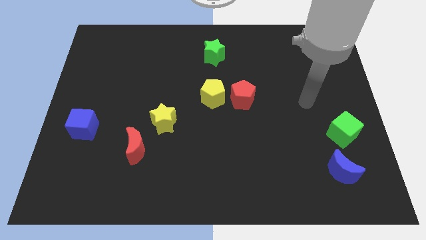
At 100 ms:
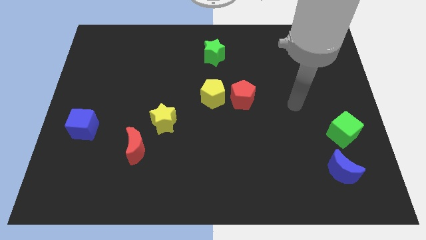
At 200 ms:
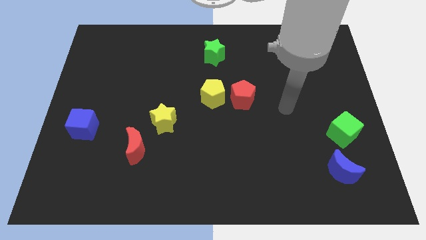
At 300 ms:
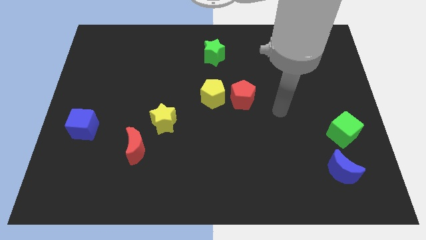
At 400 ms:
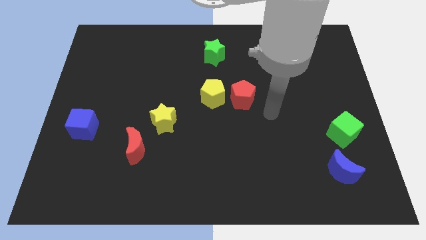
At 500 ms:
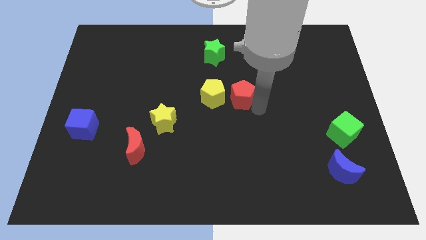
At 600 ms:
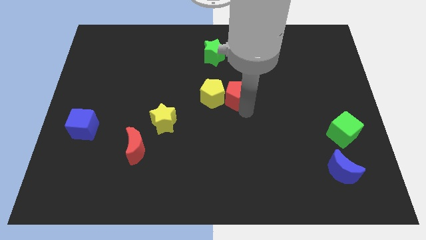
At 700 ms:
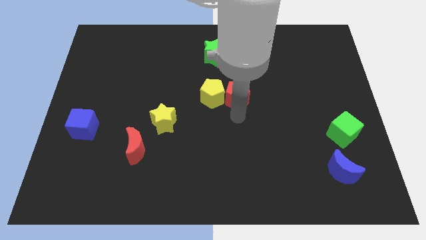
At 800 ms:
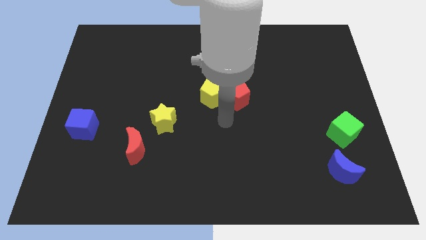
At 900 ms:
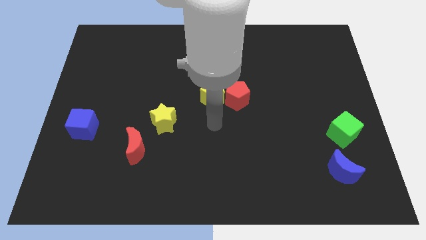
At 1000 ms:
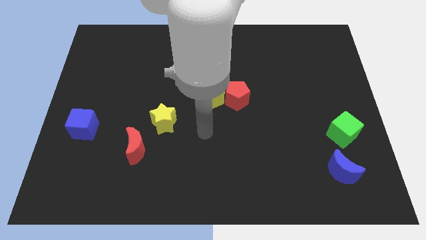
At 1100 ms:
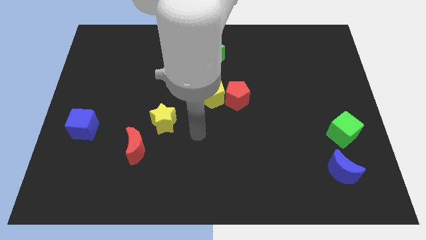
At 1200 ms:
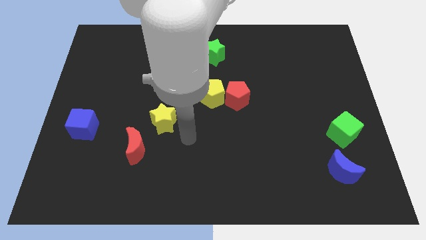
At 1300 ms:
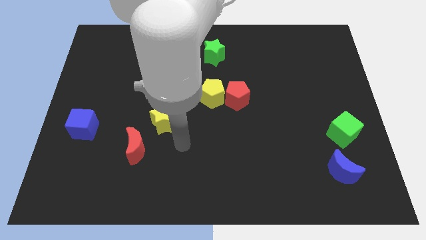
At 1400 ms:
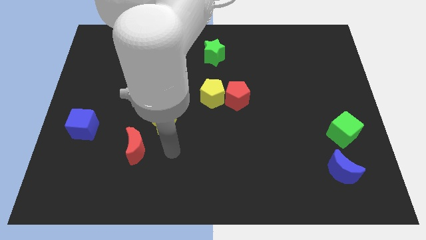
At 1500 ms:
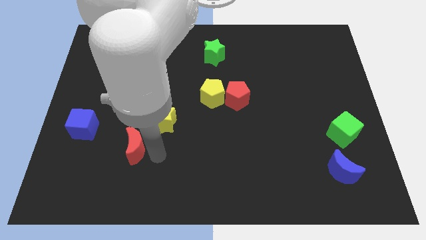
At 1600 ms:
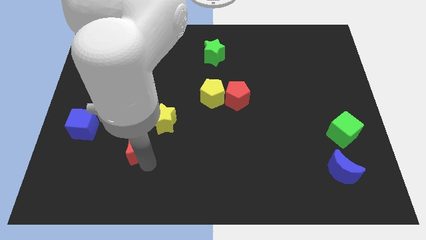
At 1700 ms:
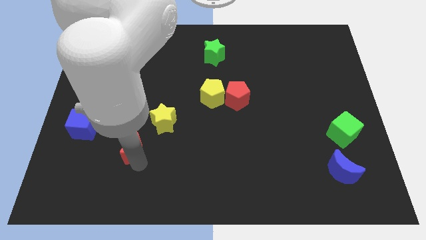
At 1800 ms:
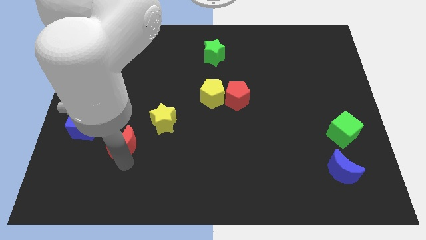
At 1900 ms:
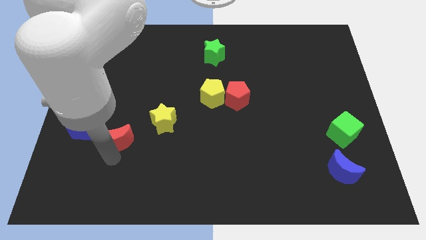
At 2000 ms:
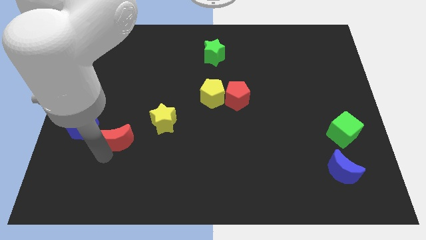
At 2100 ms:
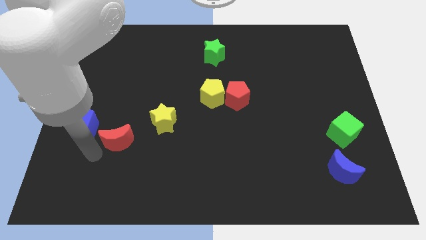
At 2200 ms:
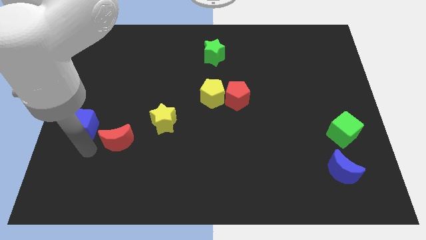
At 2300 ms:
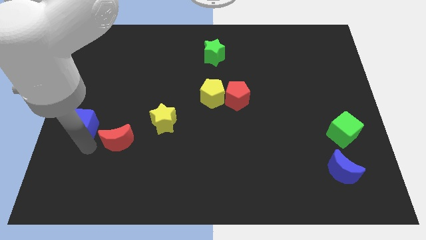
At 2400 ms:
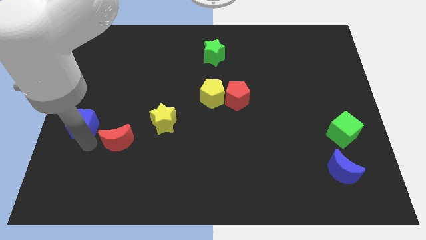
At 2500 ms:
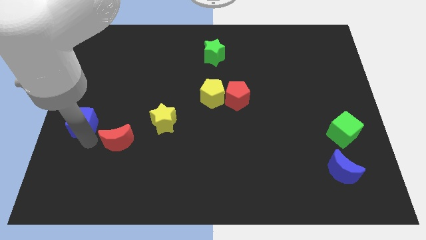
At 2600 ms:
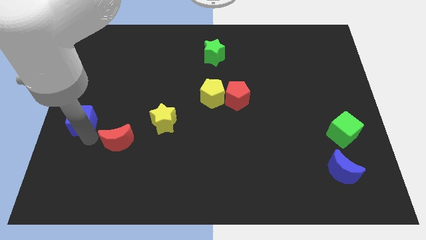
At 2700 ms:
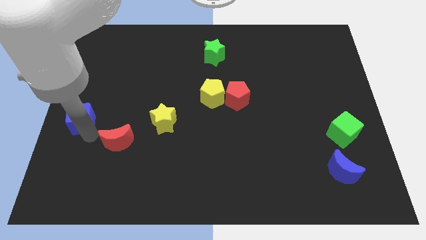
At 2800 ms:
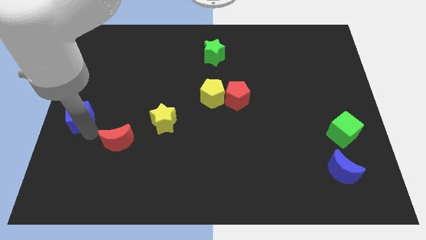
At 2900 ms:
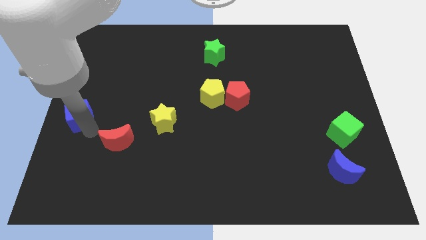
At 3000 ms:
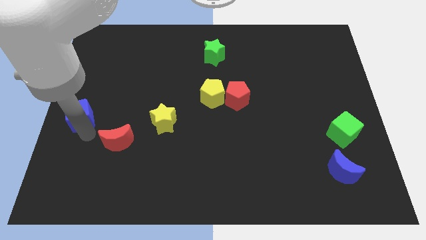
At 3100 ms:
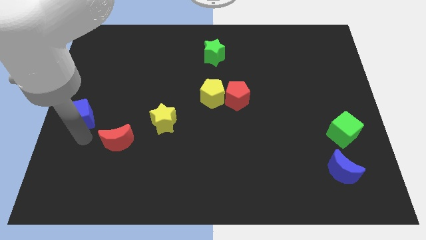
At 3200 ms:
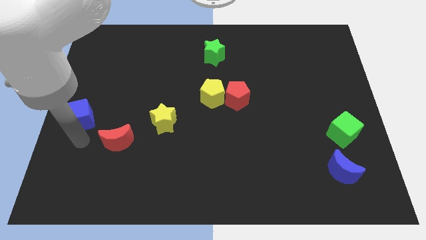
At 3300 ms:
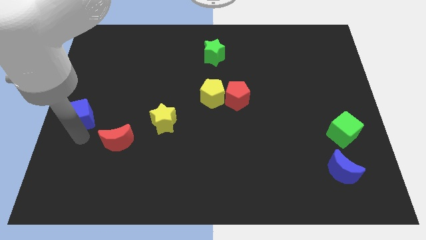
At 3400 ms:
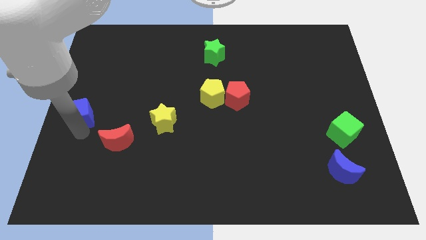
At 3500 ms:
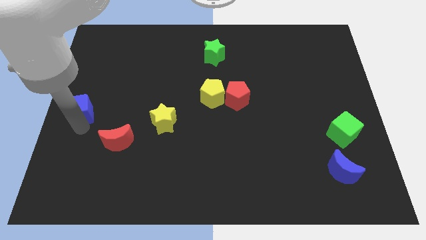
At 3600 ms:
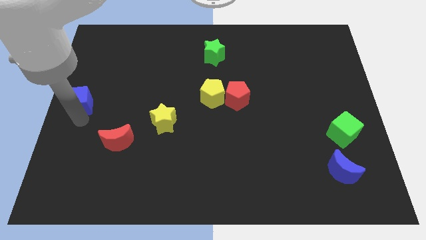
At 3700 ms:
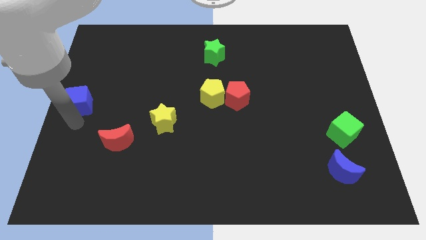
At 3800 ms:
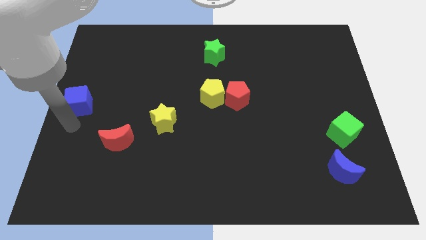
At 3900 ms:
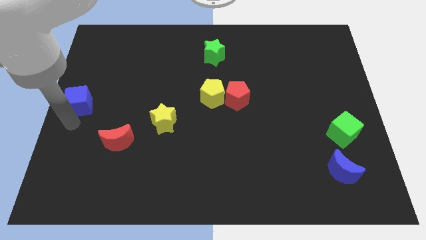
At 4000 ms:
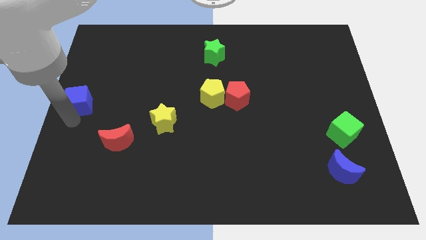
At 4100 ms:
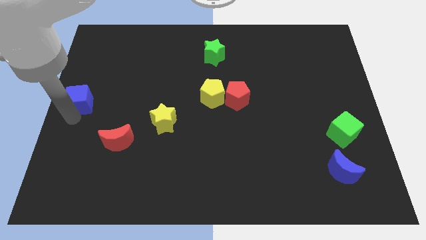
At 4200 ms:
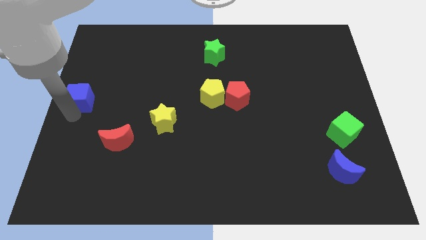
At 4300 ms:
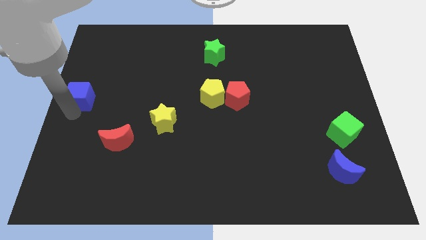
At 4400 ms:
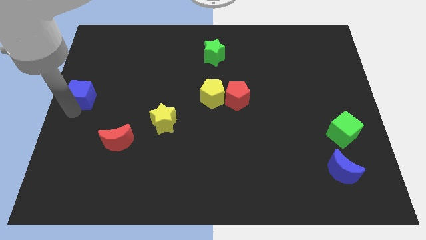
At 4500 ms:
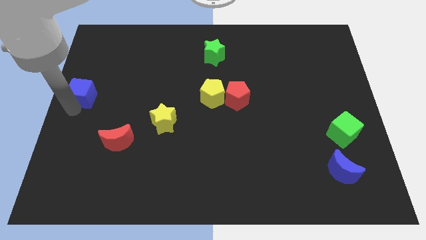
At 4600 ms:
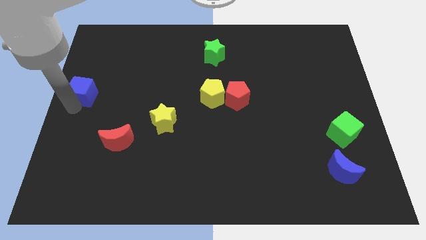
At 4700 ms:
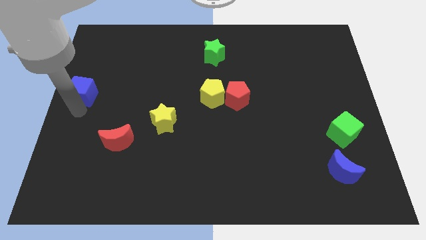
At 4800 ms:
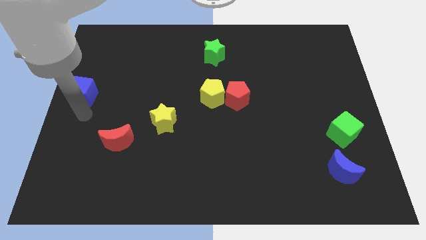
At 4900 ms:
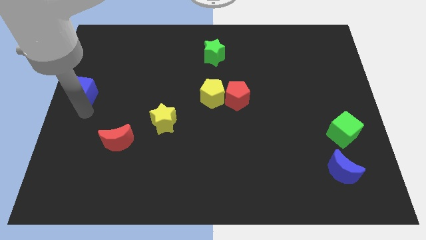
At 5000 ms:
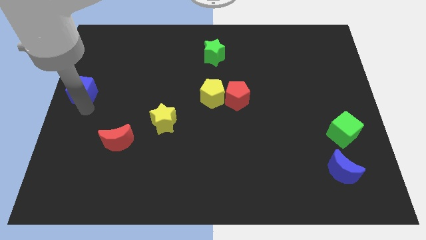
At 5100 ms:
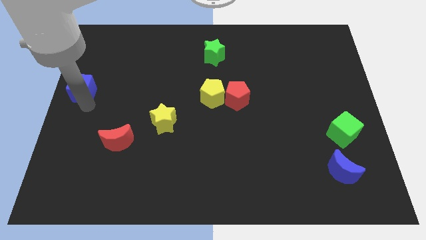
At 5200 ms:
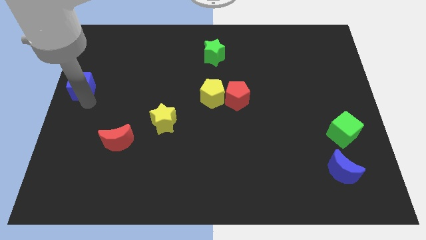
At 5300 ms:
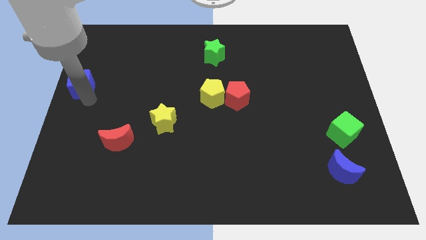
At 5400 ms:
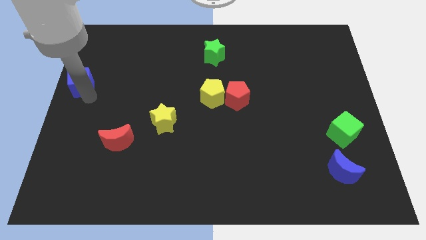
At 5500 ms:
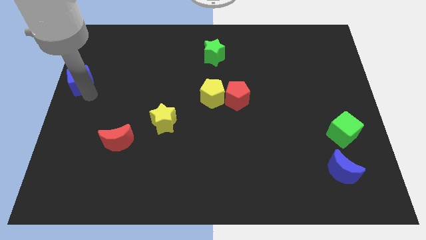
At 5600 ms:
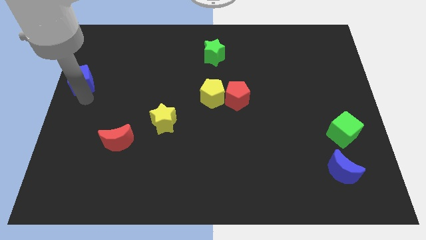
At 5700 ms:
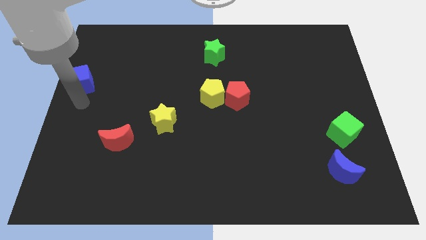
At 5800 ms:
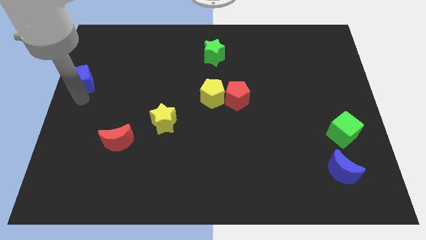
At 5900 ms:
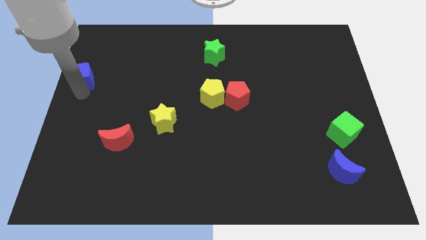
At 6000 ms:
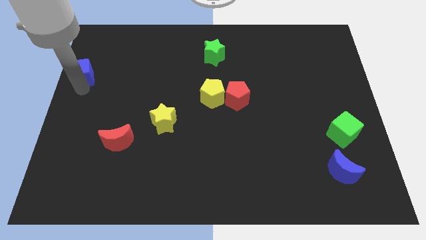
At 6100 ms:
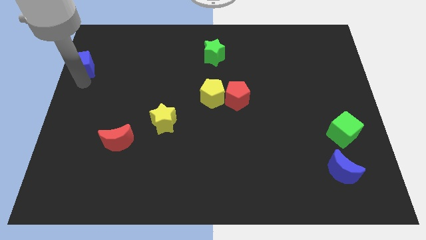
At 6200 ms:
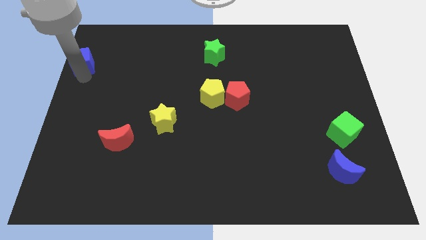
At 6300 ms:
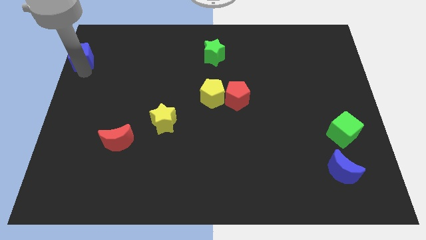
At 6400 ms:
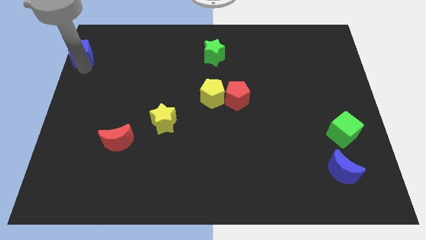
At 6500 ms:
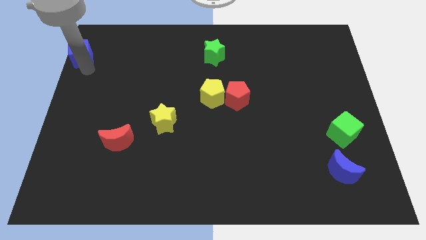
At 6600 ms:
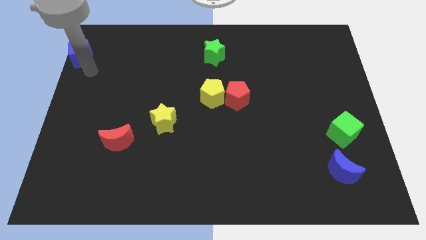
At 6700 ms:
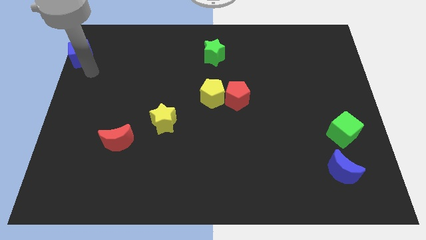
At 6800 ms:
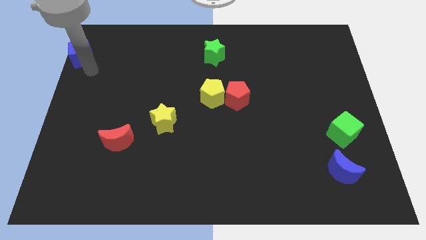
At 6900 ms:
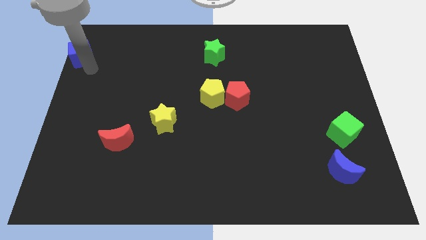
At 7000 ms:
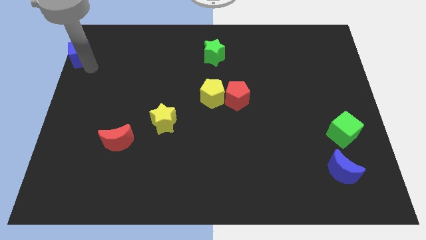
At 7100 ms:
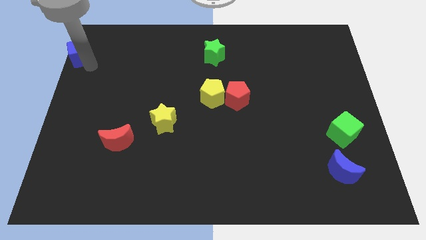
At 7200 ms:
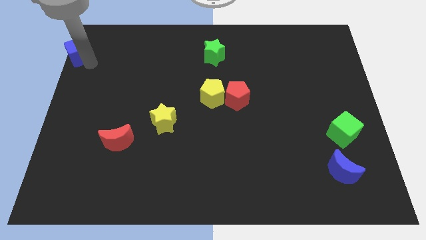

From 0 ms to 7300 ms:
push the blue cube to the top left corner
